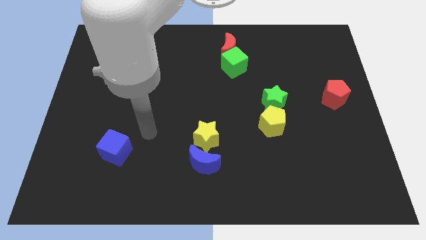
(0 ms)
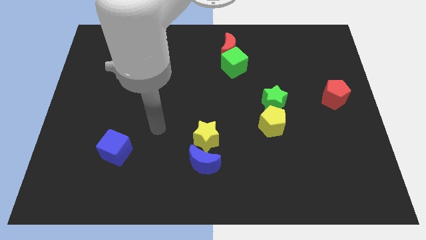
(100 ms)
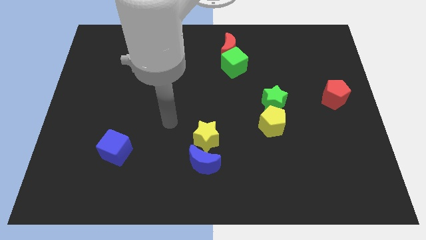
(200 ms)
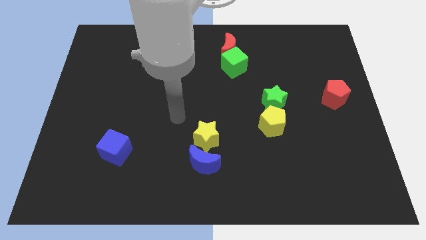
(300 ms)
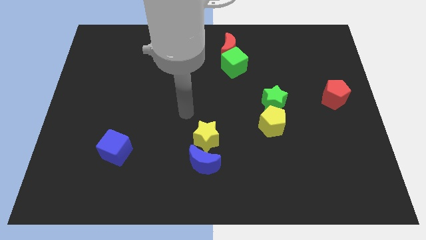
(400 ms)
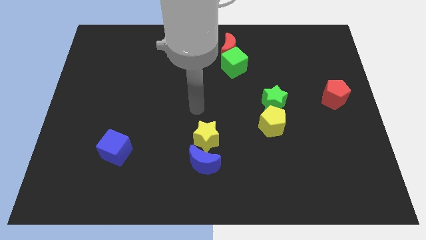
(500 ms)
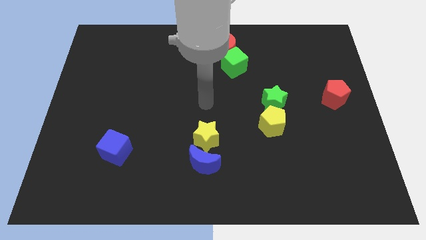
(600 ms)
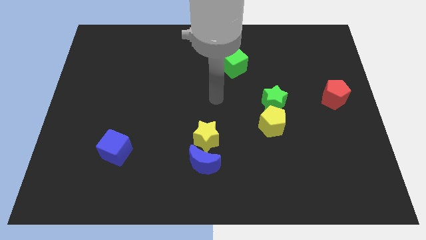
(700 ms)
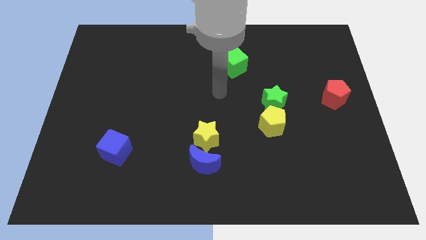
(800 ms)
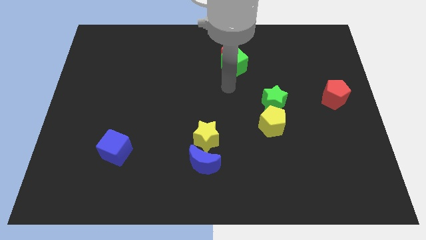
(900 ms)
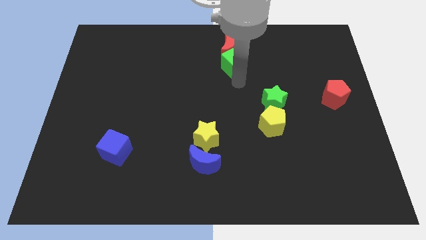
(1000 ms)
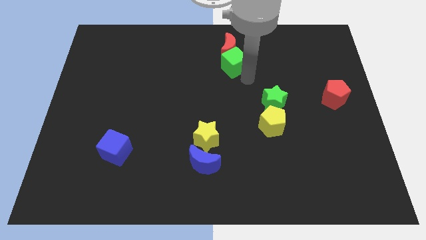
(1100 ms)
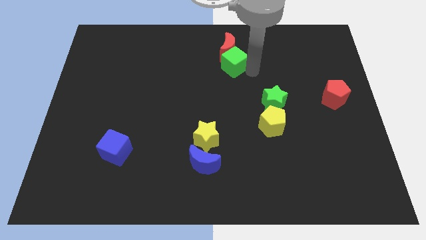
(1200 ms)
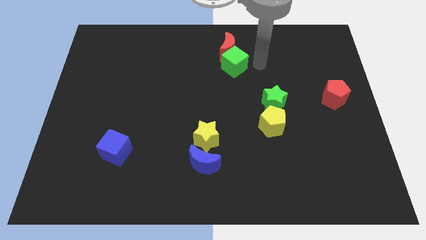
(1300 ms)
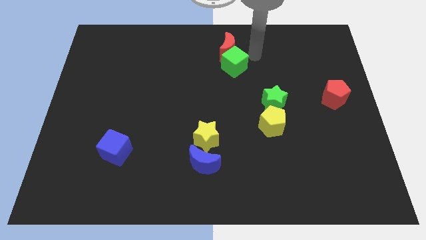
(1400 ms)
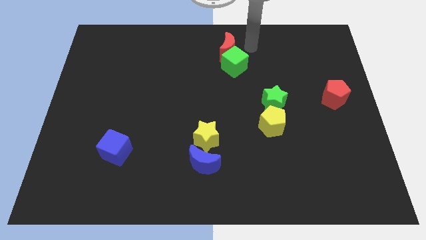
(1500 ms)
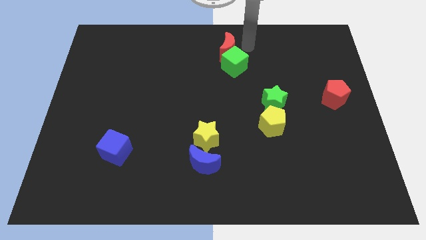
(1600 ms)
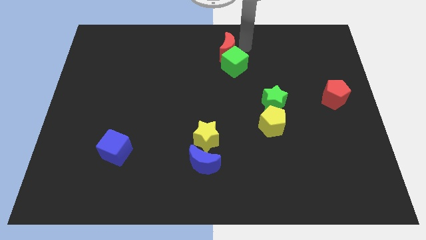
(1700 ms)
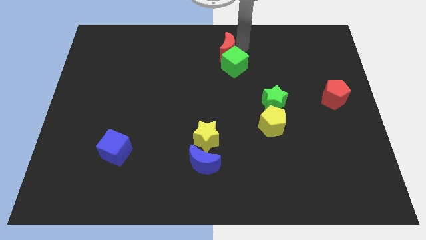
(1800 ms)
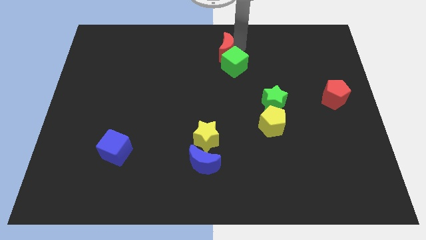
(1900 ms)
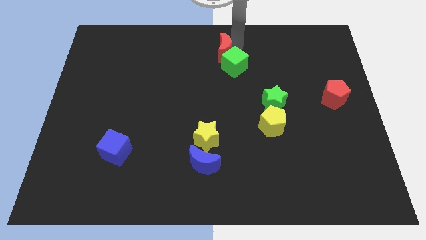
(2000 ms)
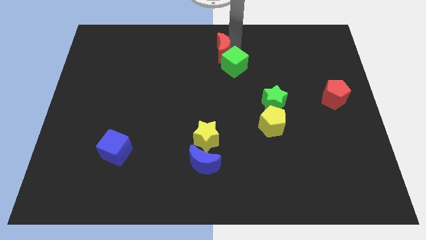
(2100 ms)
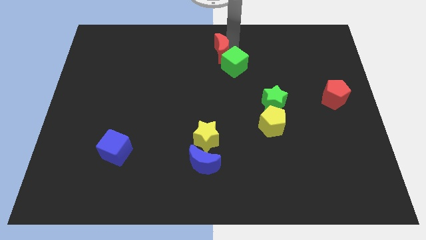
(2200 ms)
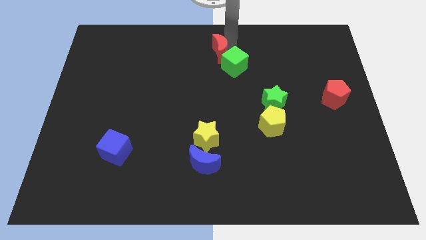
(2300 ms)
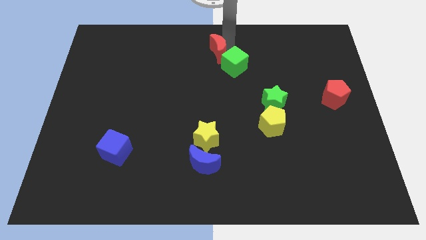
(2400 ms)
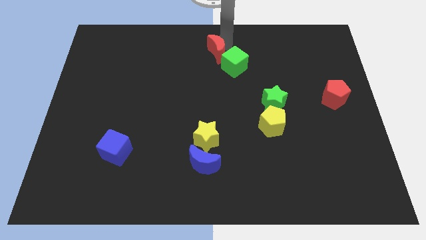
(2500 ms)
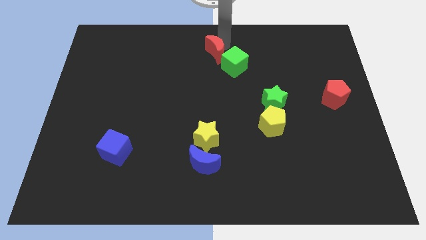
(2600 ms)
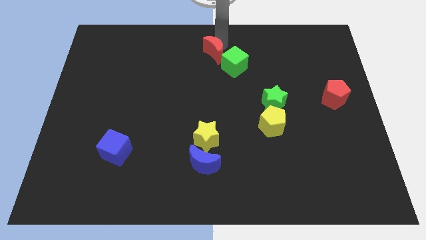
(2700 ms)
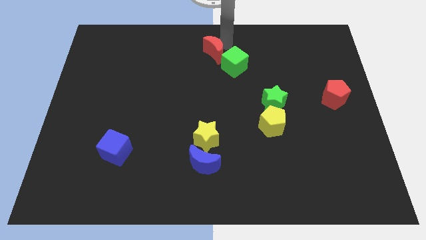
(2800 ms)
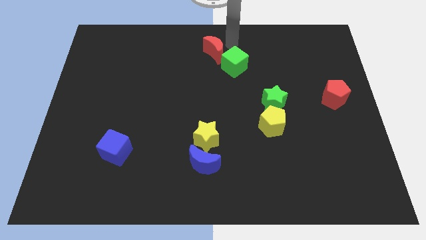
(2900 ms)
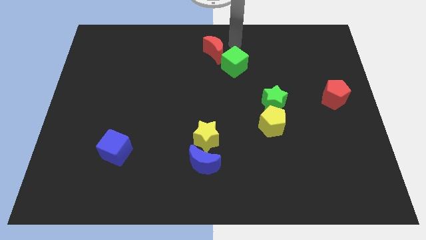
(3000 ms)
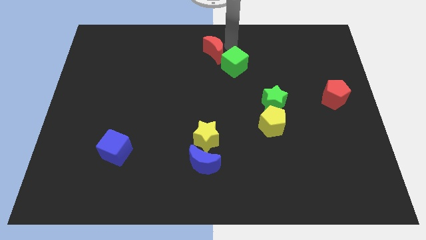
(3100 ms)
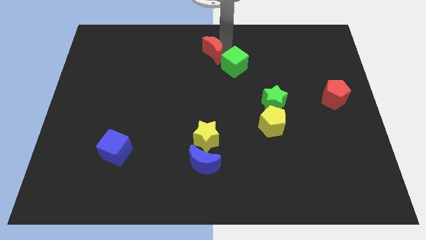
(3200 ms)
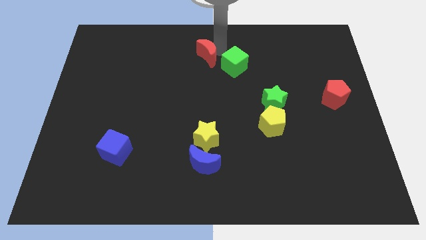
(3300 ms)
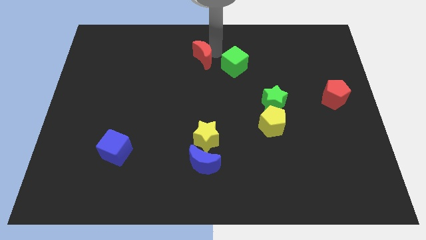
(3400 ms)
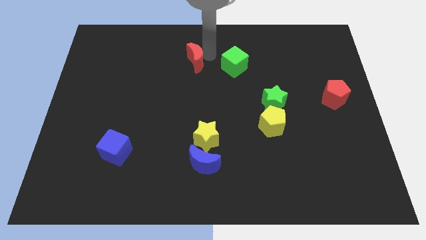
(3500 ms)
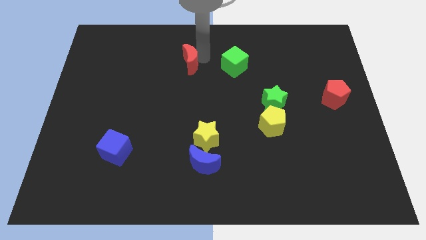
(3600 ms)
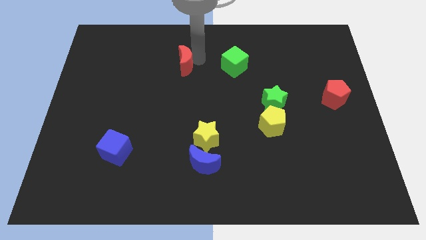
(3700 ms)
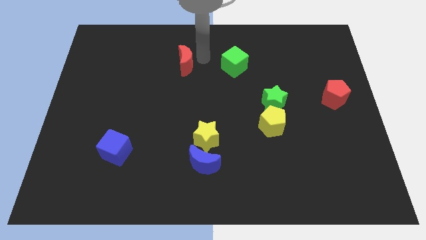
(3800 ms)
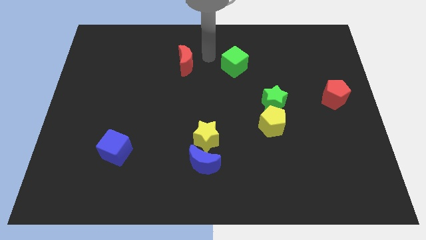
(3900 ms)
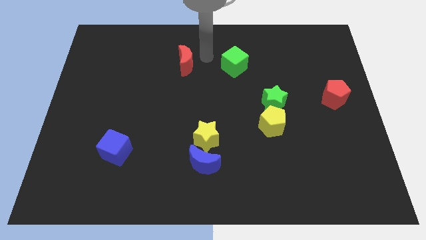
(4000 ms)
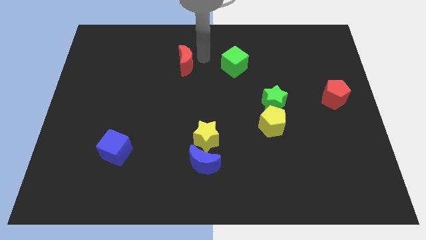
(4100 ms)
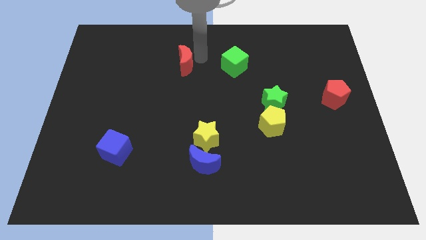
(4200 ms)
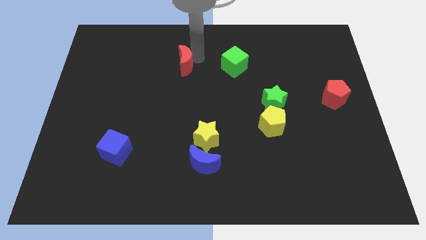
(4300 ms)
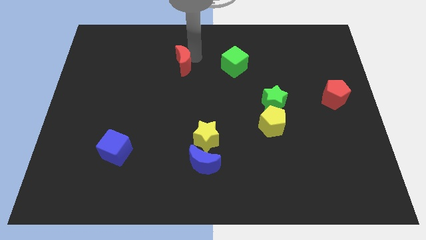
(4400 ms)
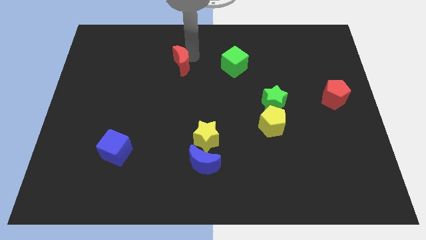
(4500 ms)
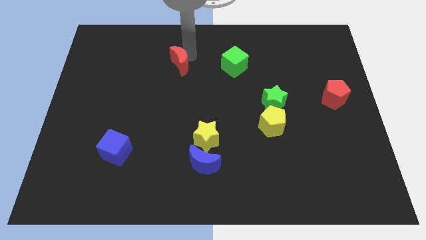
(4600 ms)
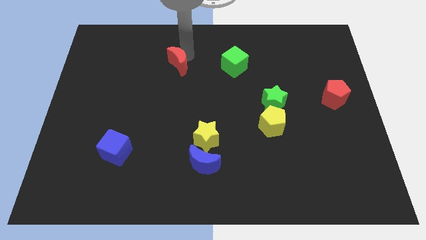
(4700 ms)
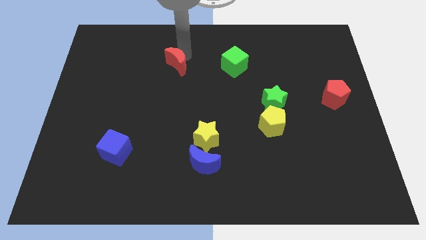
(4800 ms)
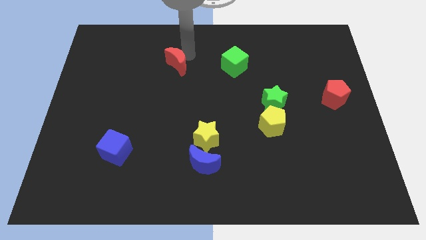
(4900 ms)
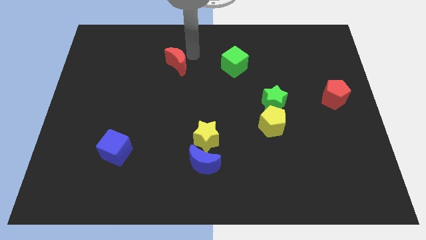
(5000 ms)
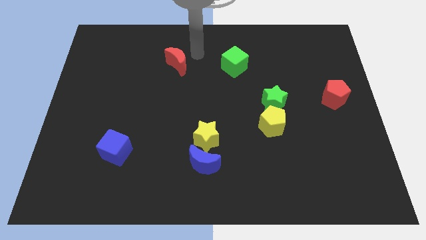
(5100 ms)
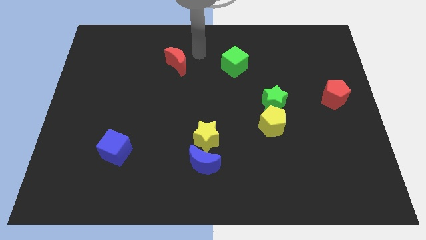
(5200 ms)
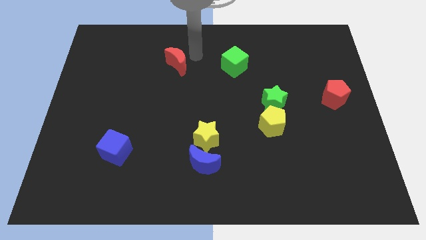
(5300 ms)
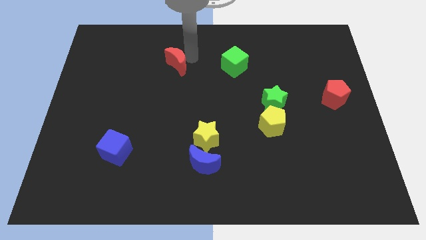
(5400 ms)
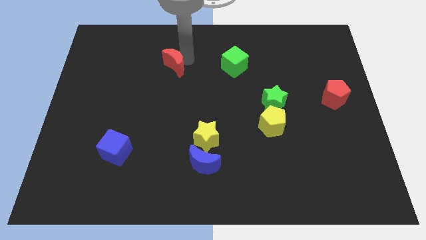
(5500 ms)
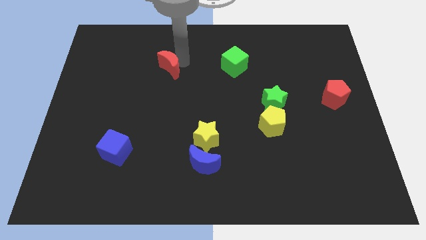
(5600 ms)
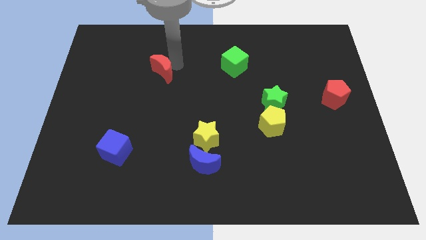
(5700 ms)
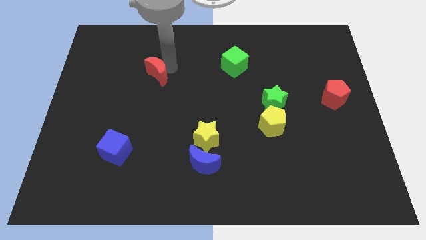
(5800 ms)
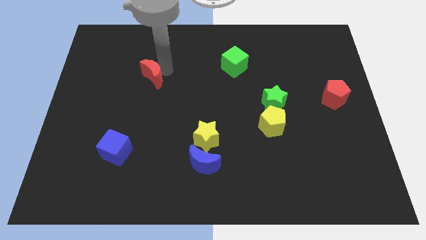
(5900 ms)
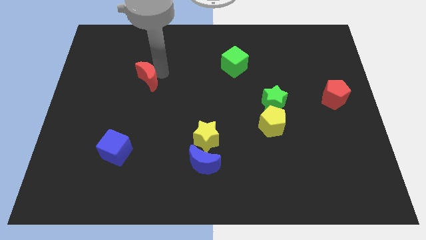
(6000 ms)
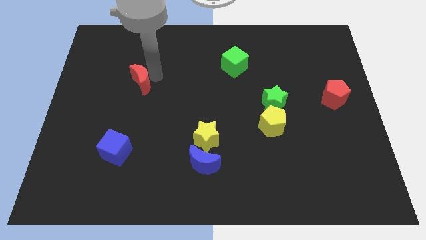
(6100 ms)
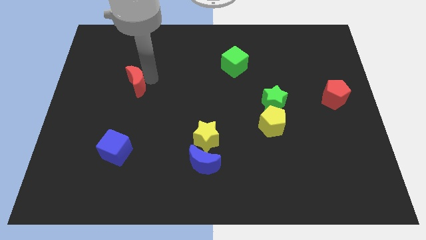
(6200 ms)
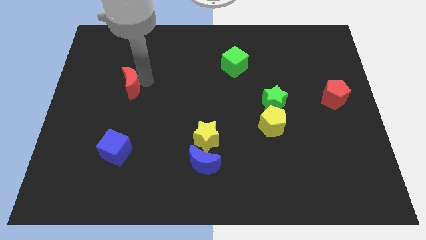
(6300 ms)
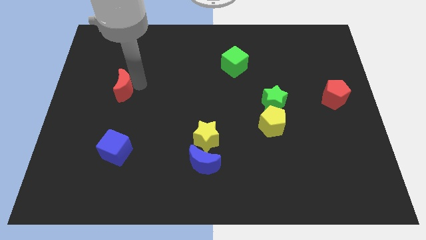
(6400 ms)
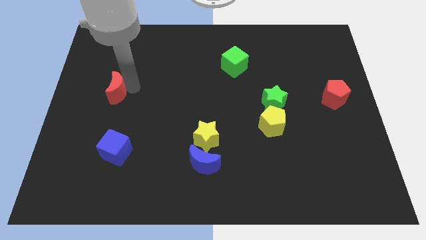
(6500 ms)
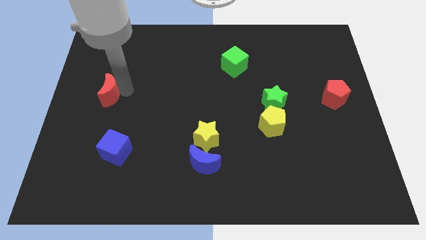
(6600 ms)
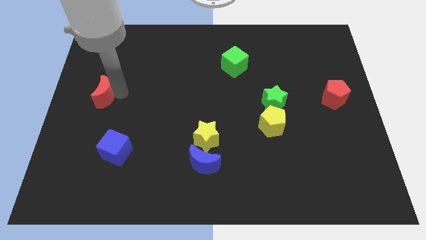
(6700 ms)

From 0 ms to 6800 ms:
slide the red moon to the center left
